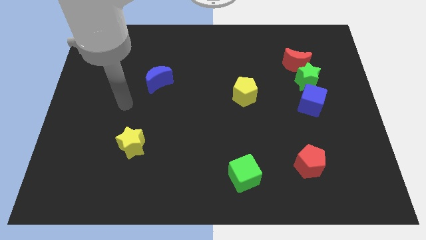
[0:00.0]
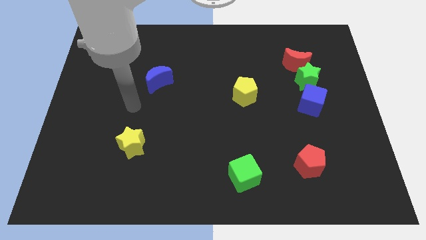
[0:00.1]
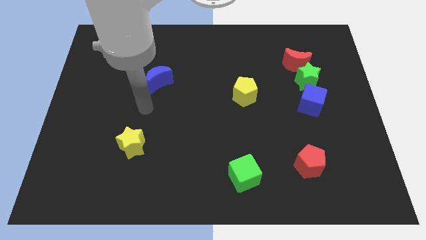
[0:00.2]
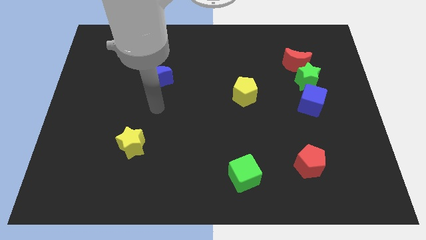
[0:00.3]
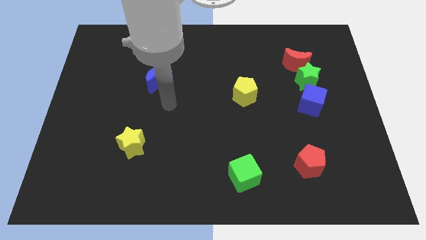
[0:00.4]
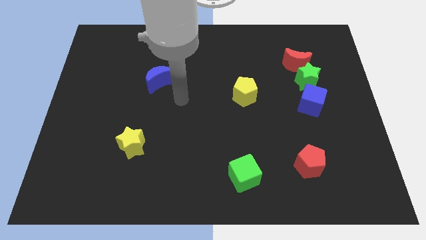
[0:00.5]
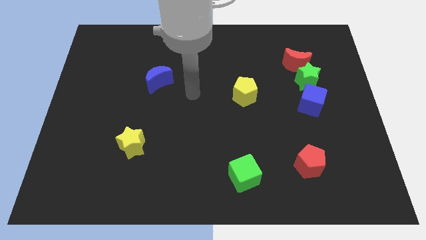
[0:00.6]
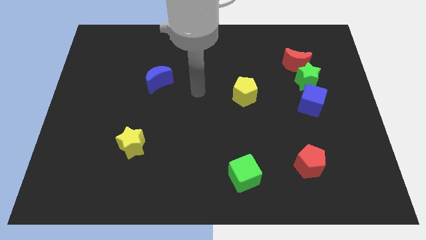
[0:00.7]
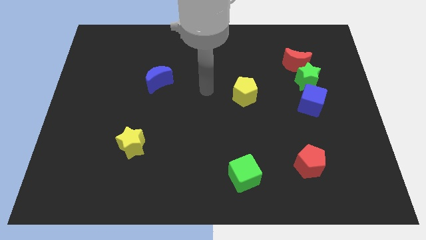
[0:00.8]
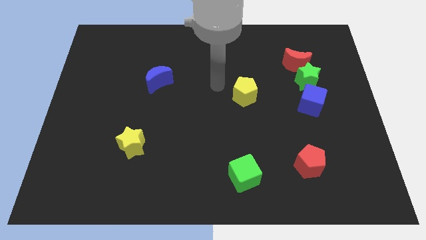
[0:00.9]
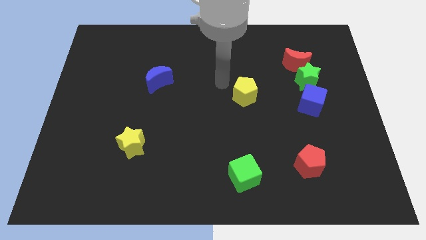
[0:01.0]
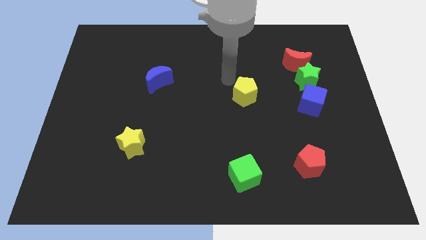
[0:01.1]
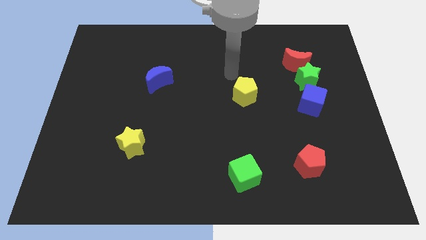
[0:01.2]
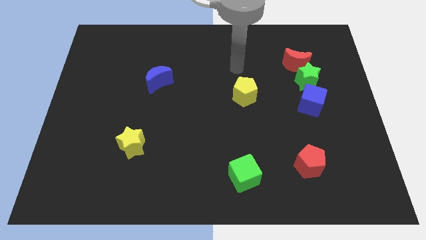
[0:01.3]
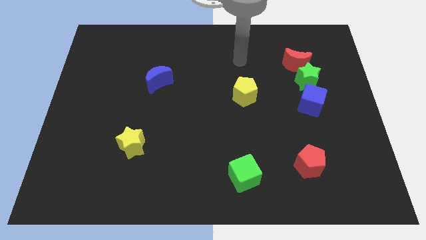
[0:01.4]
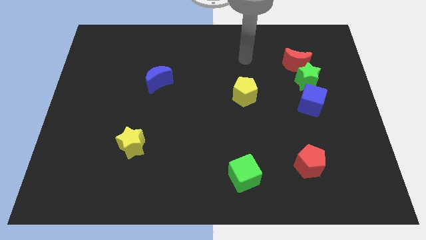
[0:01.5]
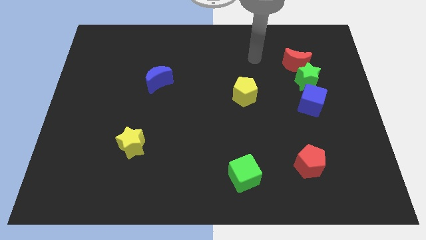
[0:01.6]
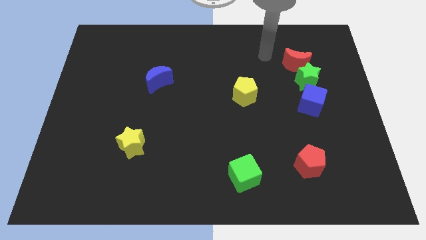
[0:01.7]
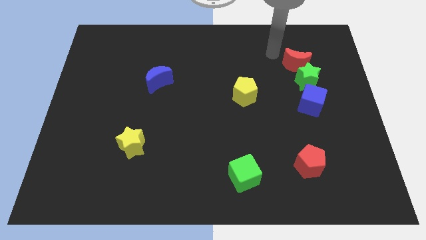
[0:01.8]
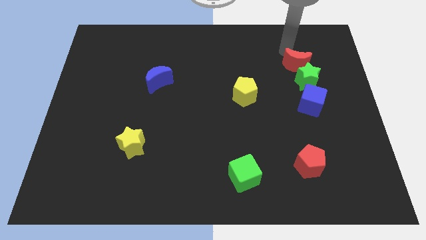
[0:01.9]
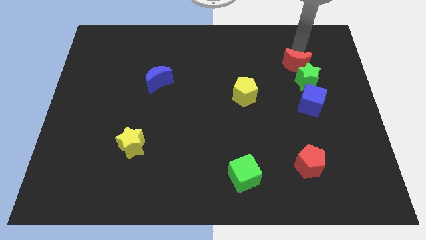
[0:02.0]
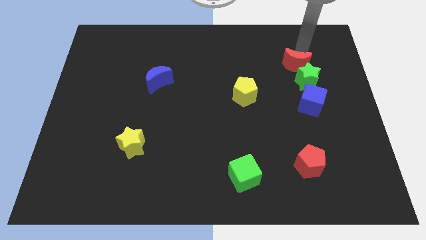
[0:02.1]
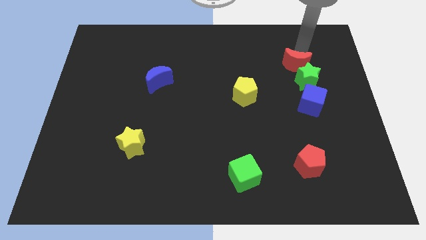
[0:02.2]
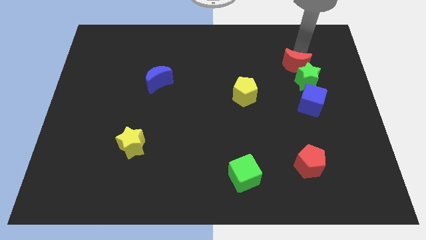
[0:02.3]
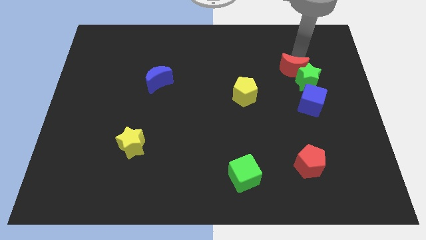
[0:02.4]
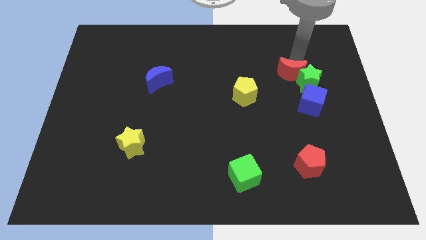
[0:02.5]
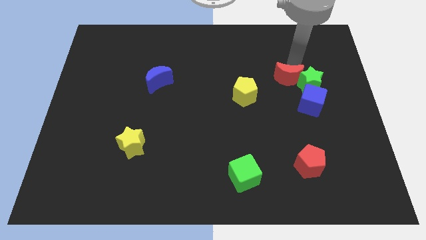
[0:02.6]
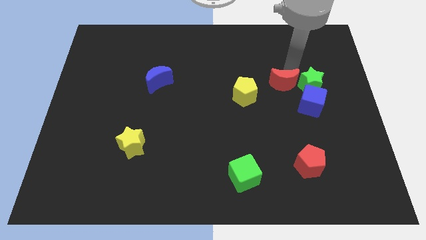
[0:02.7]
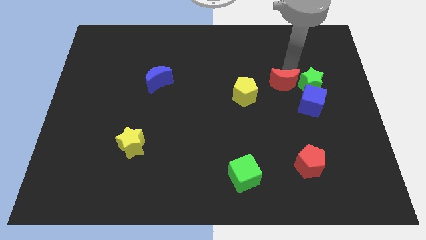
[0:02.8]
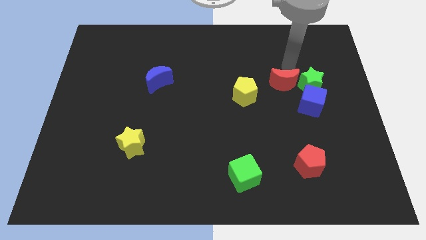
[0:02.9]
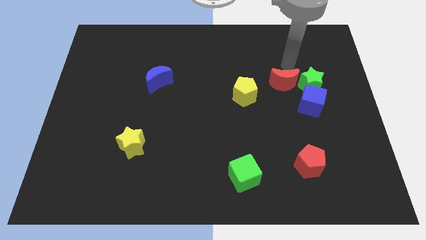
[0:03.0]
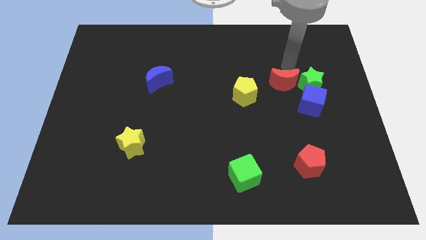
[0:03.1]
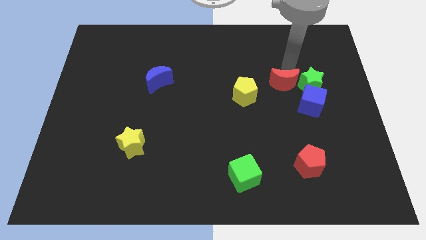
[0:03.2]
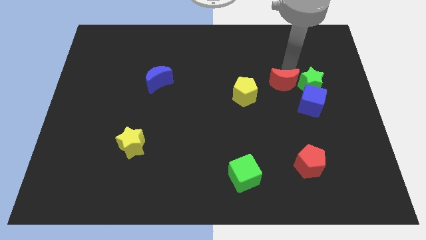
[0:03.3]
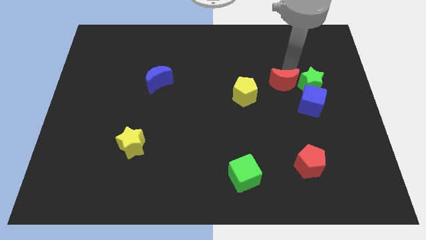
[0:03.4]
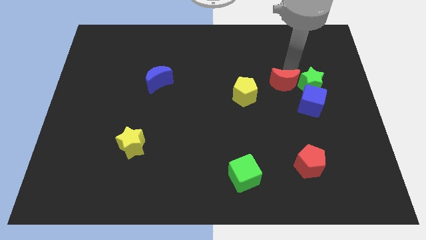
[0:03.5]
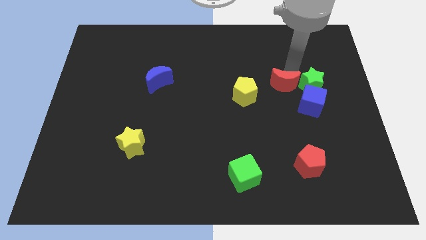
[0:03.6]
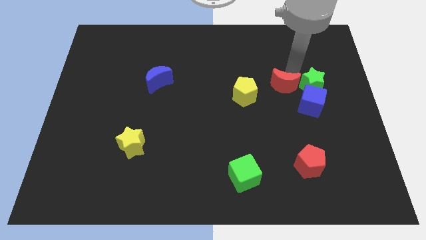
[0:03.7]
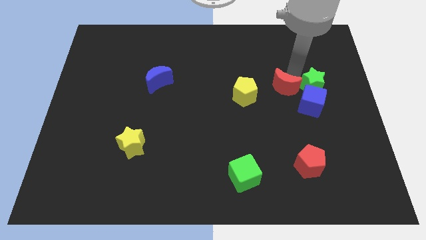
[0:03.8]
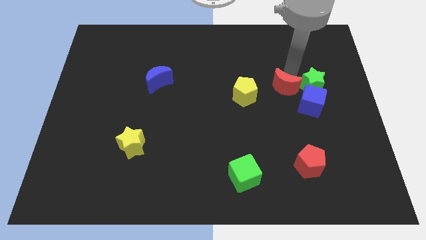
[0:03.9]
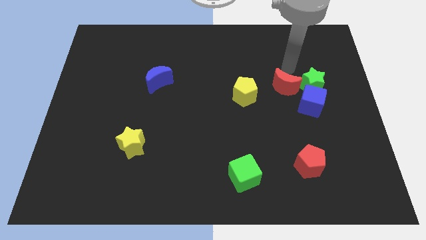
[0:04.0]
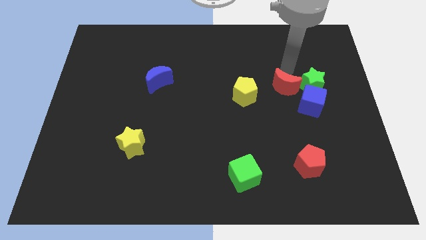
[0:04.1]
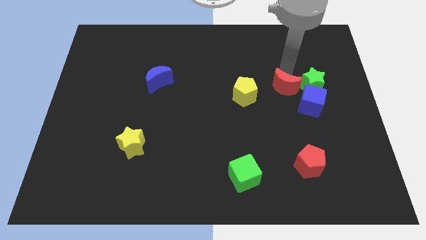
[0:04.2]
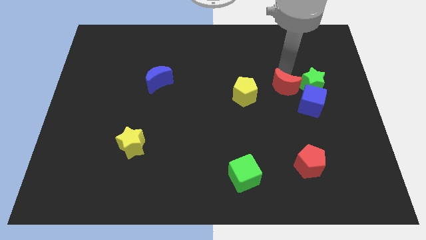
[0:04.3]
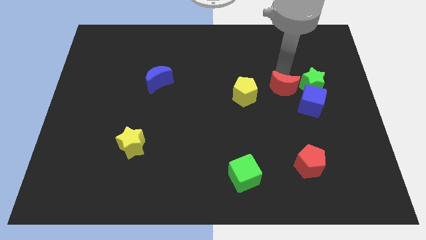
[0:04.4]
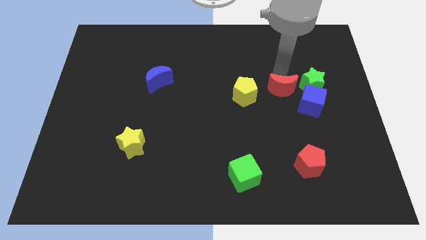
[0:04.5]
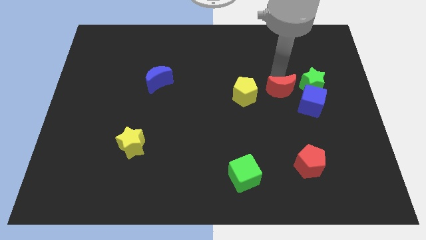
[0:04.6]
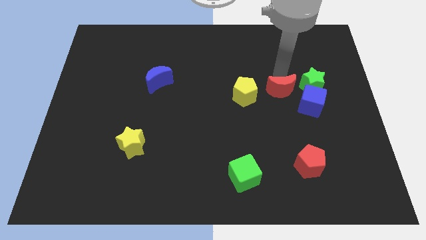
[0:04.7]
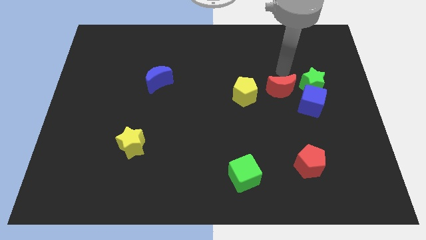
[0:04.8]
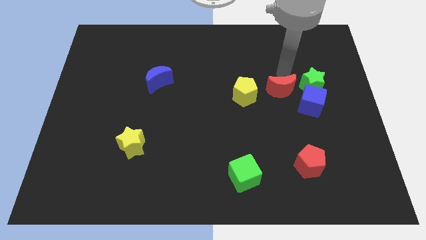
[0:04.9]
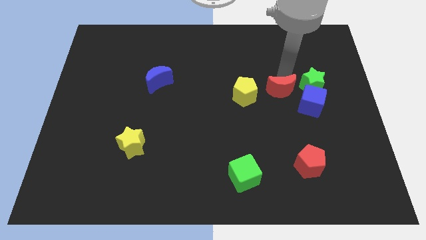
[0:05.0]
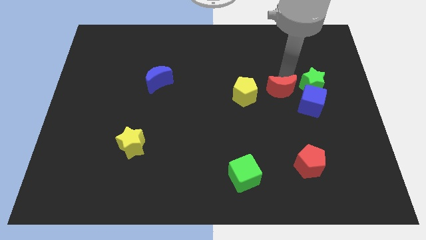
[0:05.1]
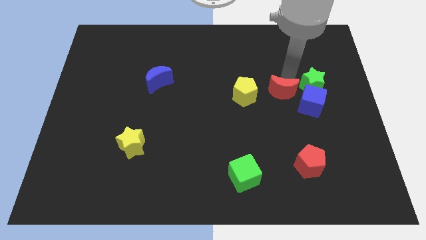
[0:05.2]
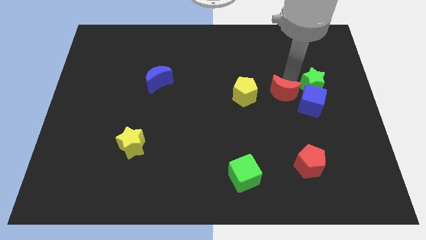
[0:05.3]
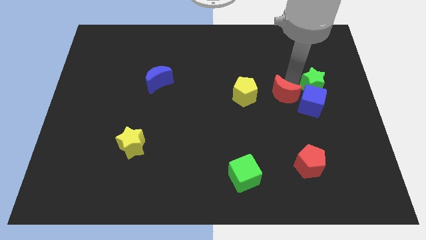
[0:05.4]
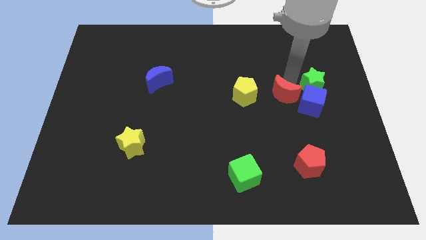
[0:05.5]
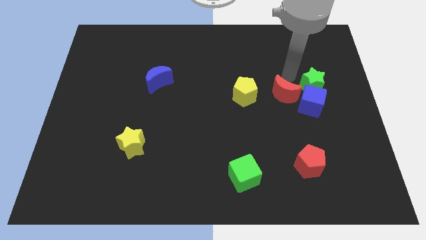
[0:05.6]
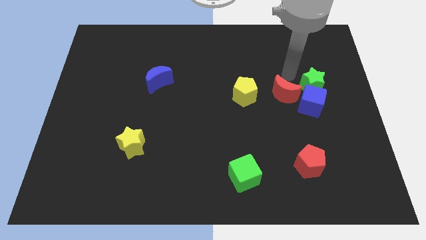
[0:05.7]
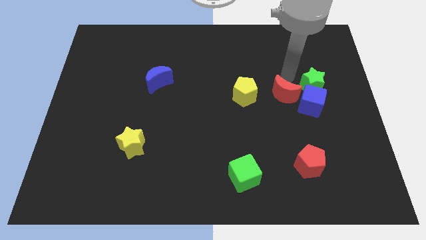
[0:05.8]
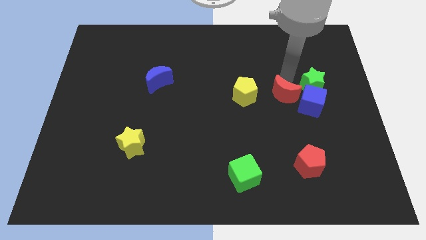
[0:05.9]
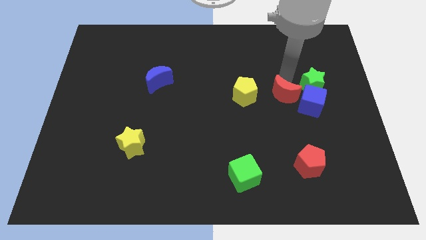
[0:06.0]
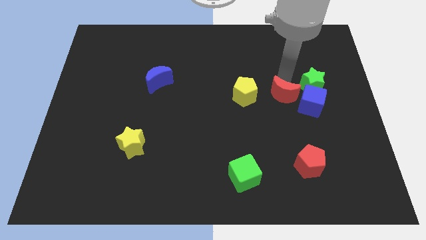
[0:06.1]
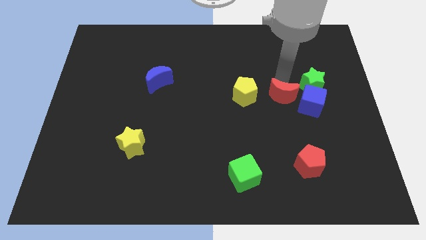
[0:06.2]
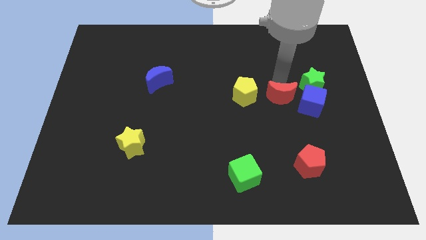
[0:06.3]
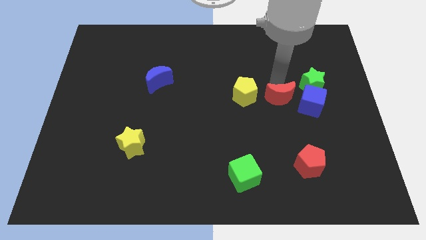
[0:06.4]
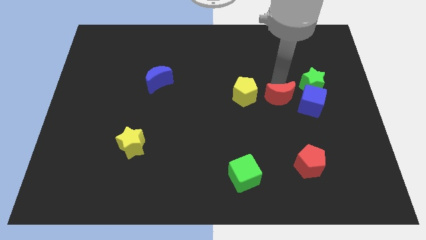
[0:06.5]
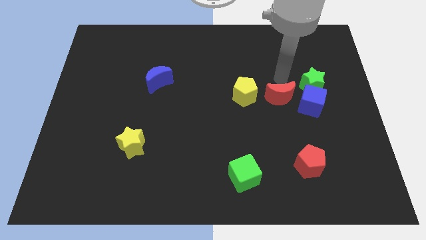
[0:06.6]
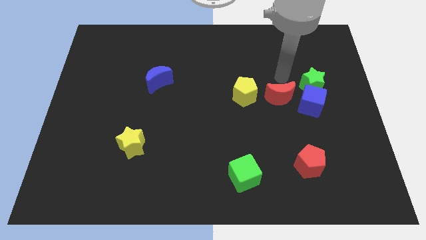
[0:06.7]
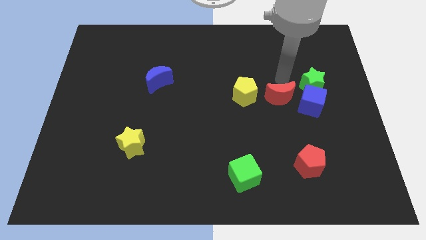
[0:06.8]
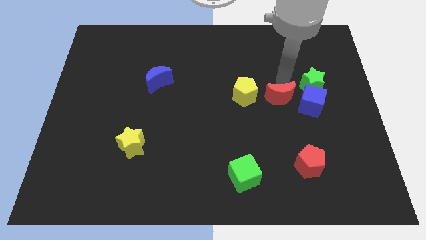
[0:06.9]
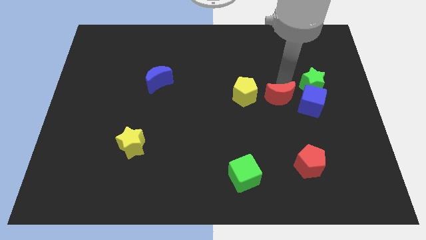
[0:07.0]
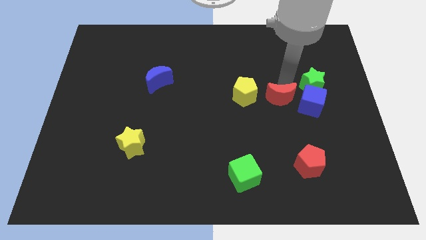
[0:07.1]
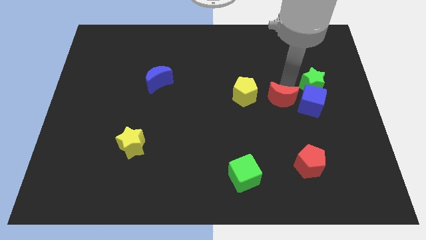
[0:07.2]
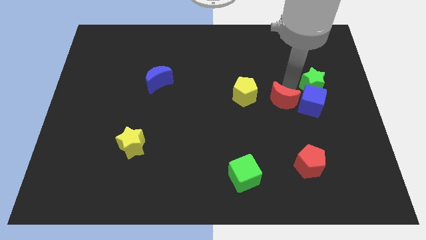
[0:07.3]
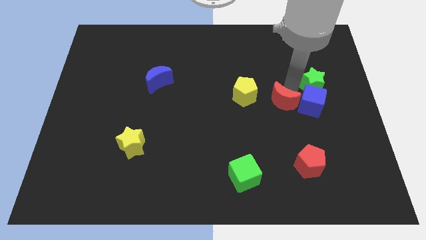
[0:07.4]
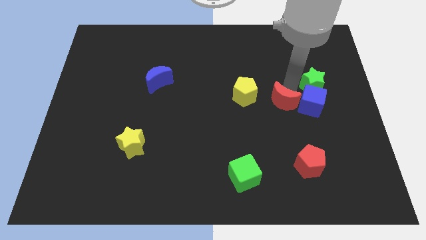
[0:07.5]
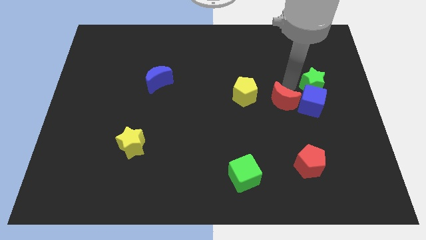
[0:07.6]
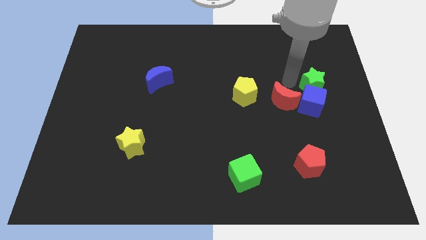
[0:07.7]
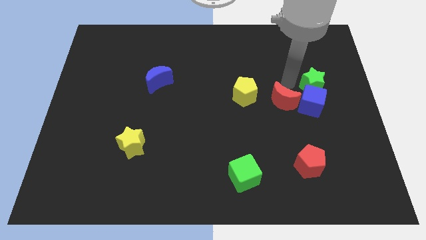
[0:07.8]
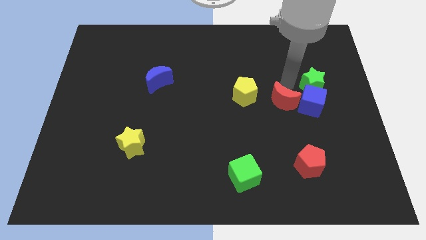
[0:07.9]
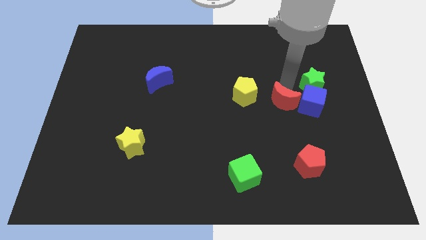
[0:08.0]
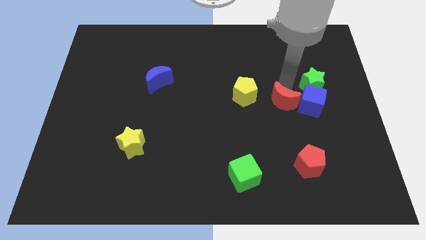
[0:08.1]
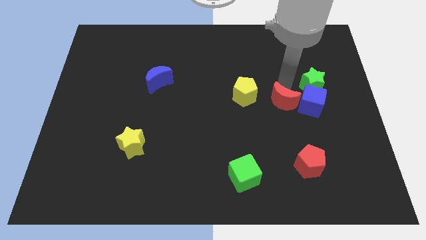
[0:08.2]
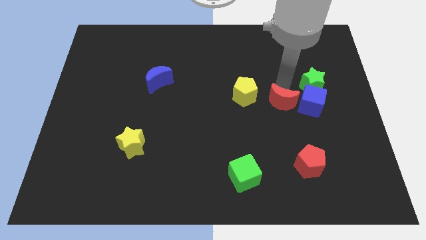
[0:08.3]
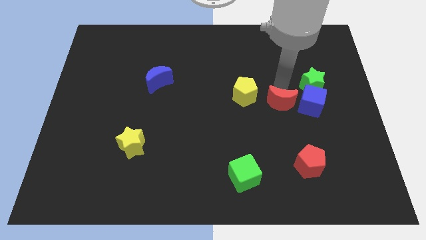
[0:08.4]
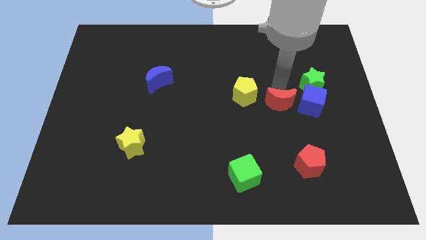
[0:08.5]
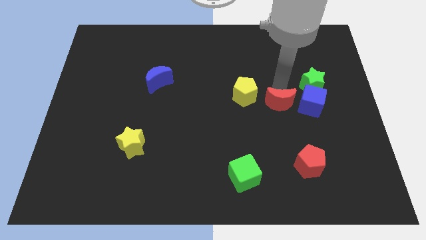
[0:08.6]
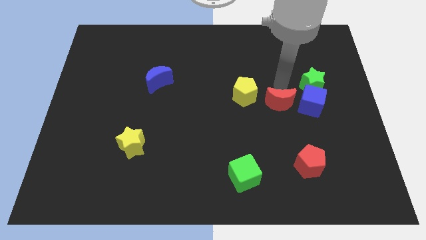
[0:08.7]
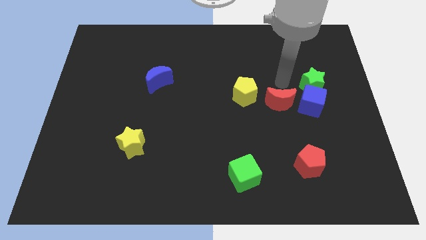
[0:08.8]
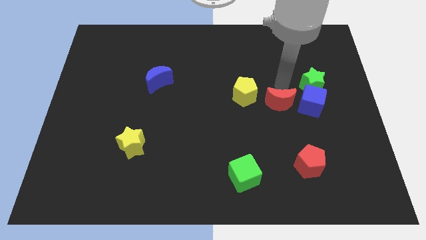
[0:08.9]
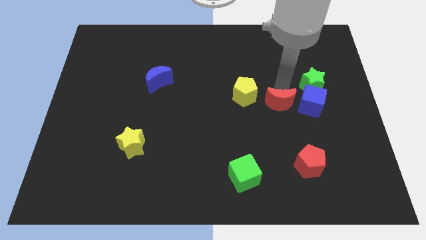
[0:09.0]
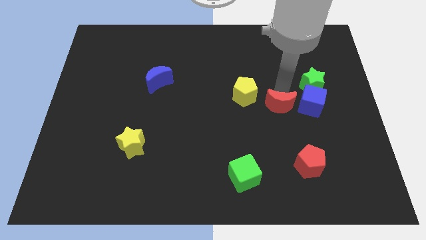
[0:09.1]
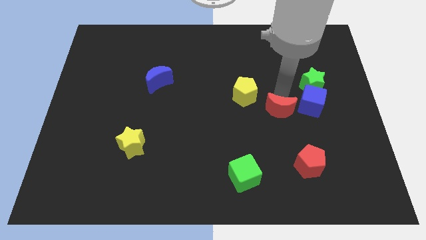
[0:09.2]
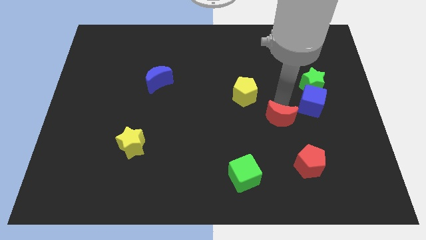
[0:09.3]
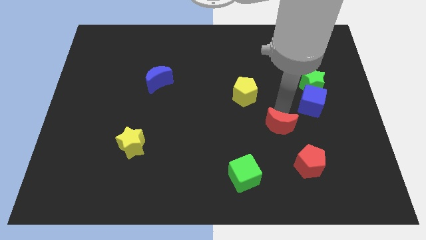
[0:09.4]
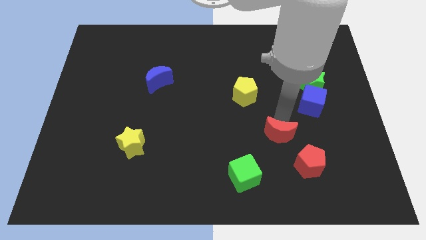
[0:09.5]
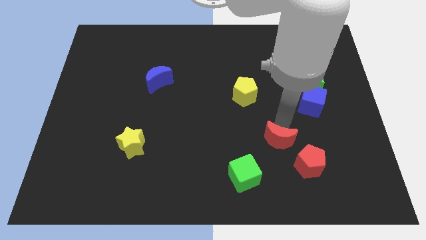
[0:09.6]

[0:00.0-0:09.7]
push the red moon diagonally up and to the right of the green cube
